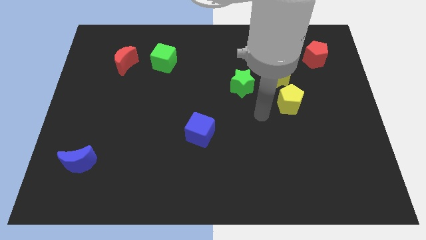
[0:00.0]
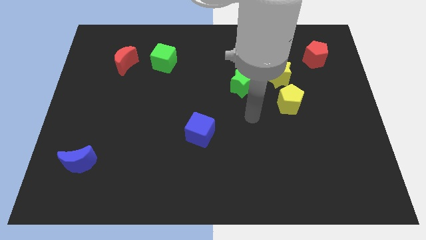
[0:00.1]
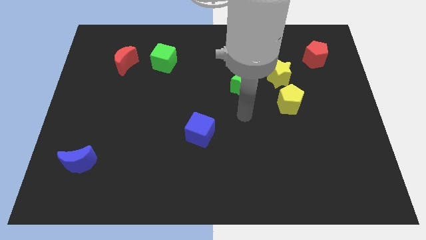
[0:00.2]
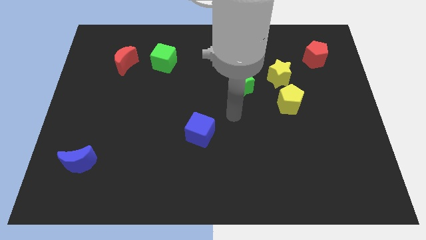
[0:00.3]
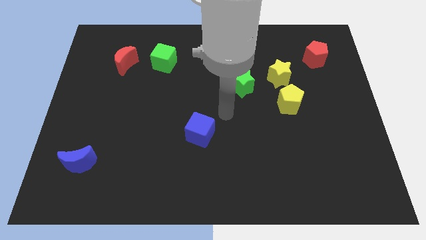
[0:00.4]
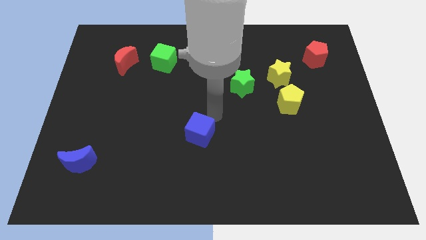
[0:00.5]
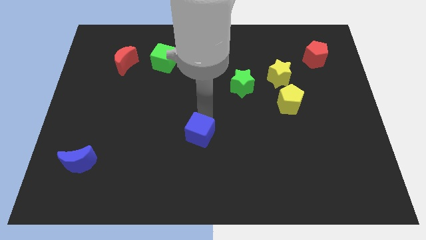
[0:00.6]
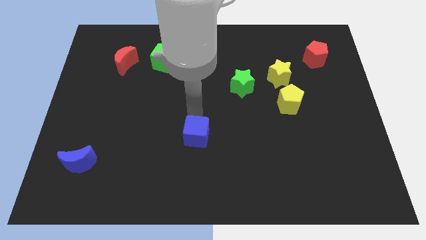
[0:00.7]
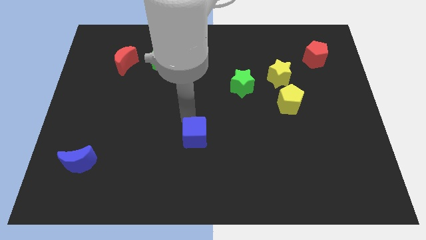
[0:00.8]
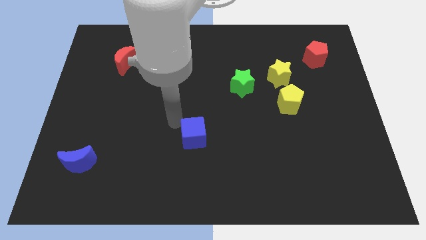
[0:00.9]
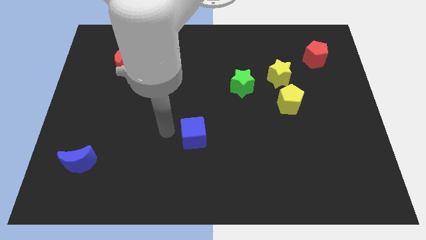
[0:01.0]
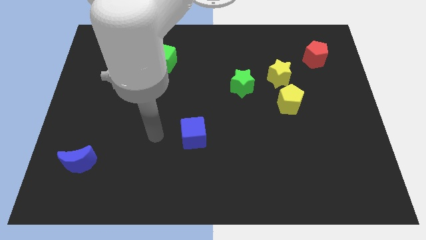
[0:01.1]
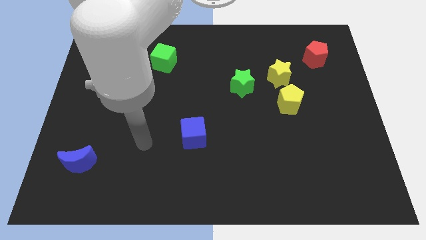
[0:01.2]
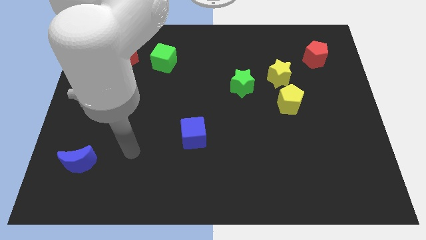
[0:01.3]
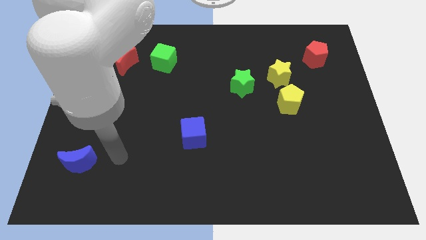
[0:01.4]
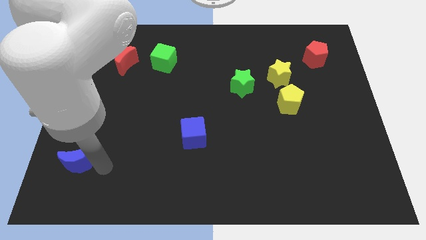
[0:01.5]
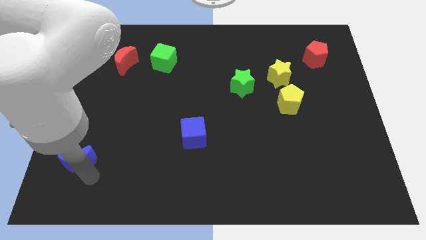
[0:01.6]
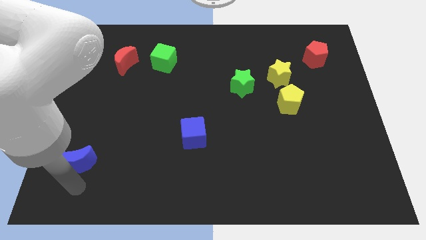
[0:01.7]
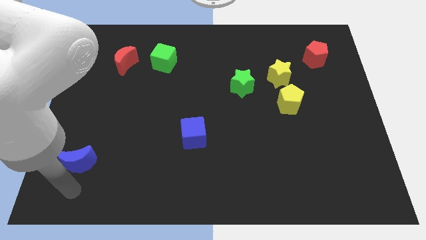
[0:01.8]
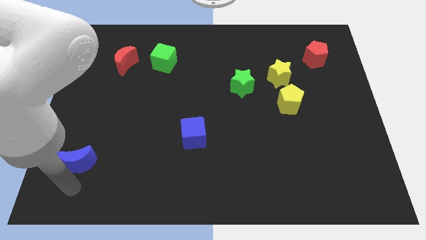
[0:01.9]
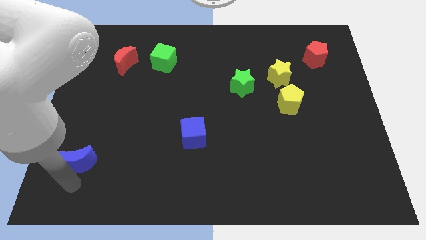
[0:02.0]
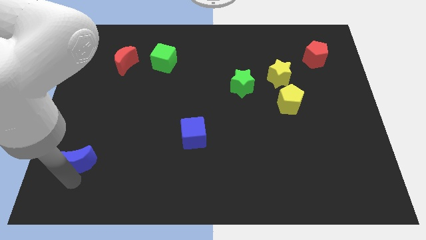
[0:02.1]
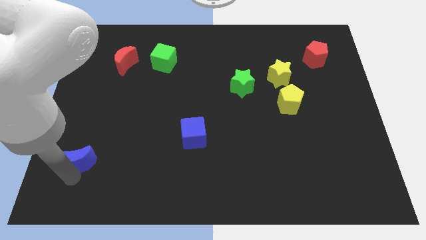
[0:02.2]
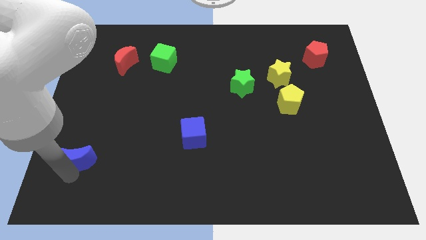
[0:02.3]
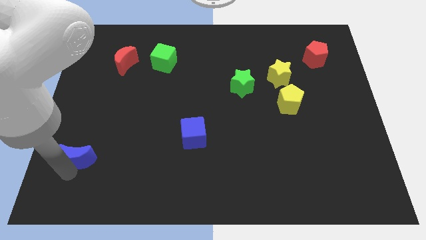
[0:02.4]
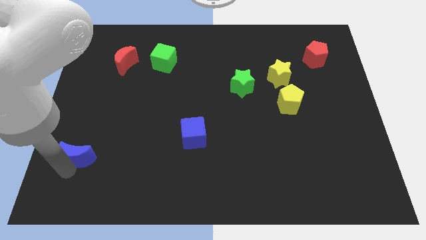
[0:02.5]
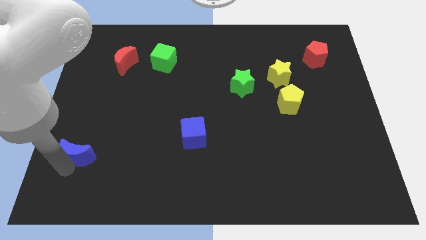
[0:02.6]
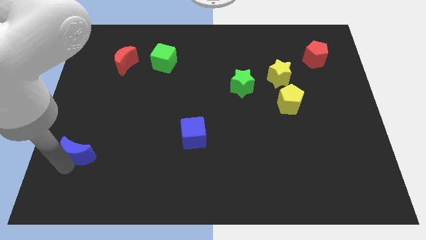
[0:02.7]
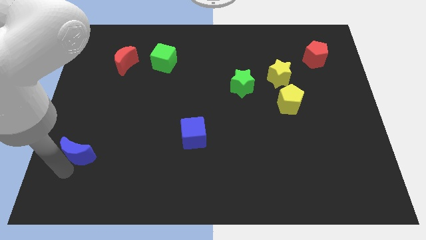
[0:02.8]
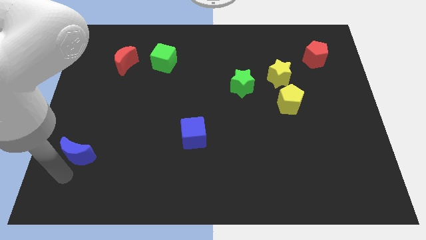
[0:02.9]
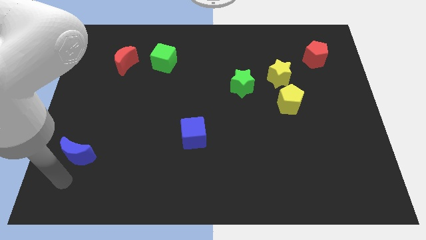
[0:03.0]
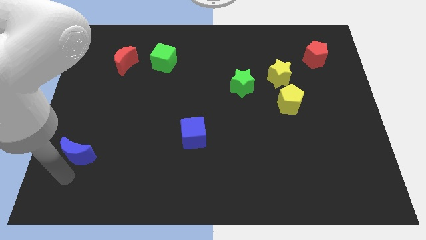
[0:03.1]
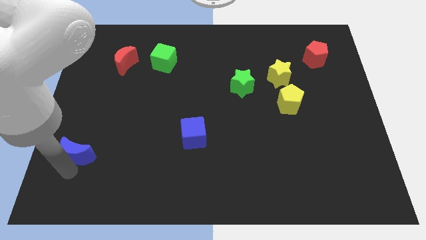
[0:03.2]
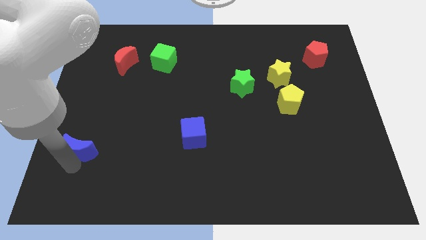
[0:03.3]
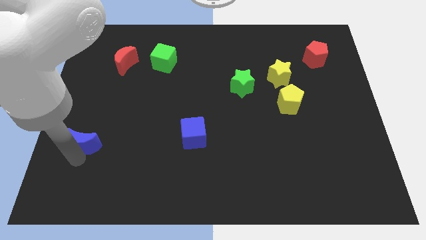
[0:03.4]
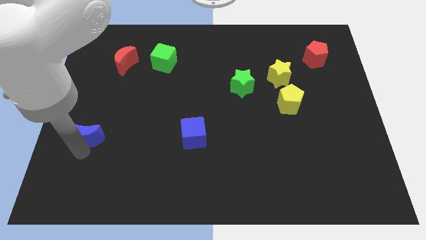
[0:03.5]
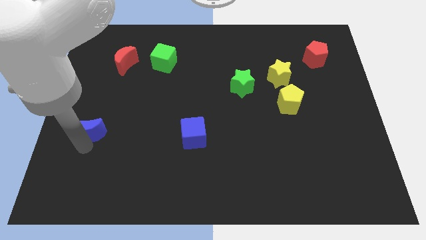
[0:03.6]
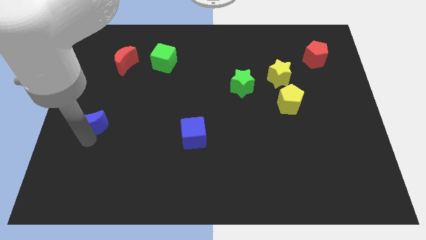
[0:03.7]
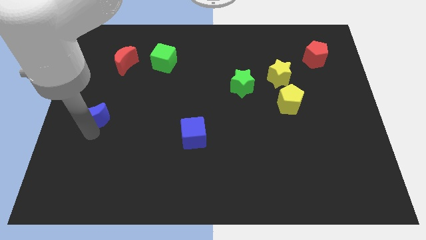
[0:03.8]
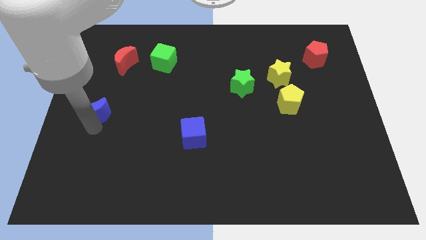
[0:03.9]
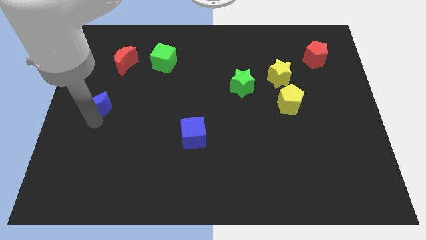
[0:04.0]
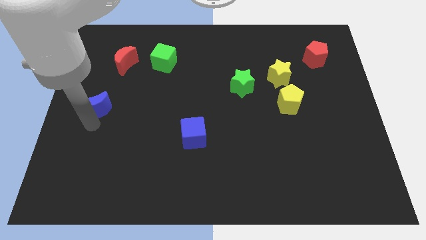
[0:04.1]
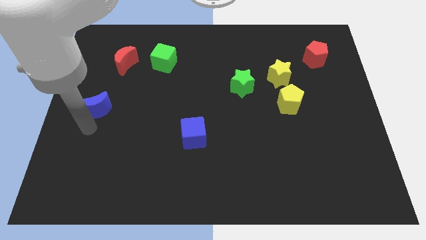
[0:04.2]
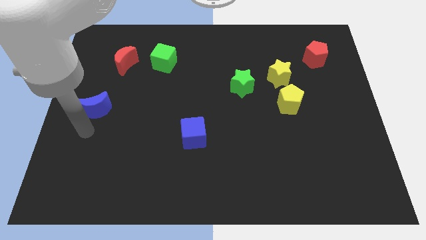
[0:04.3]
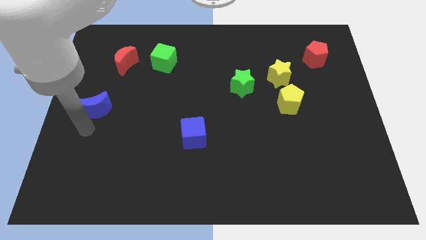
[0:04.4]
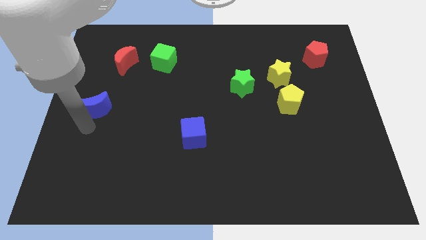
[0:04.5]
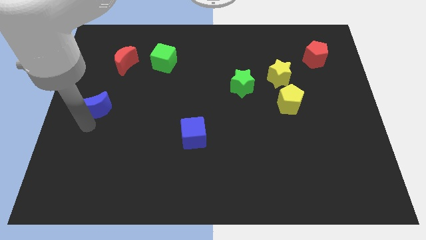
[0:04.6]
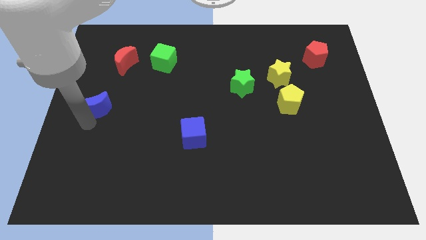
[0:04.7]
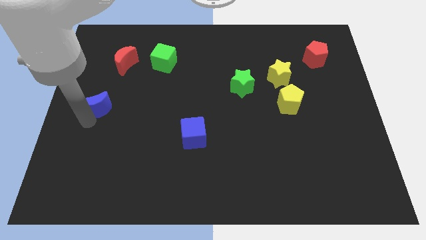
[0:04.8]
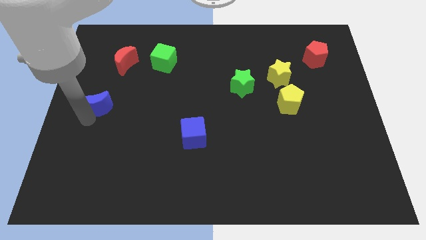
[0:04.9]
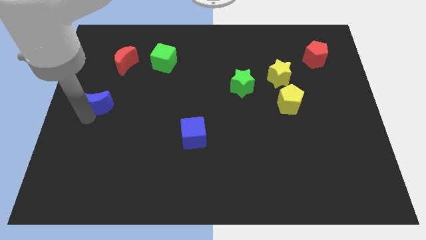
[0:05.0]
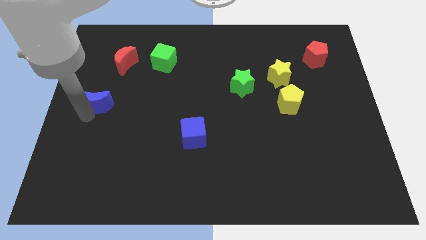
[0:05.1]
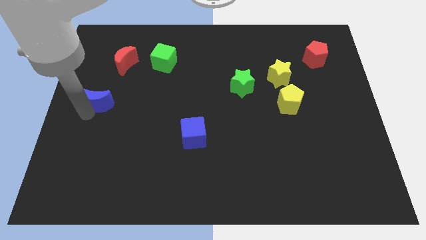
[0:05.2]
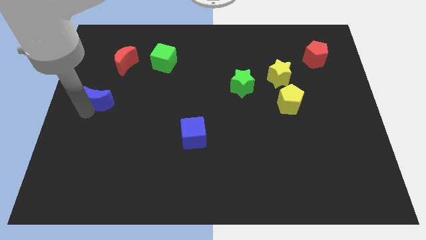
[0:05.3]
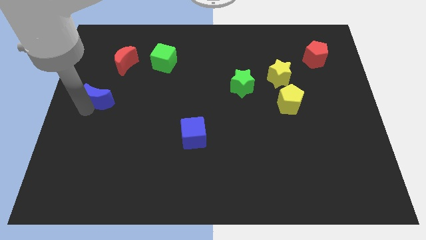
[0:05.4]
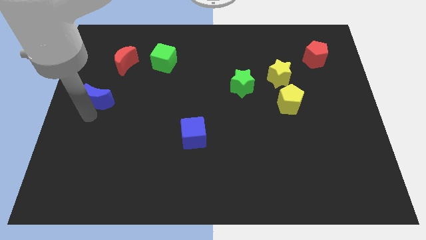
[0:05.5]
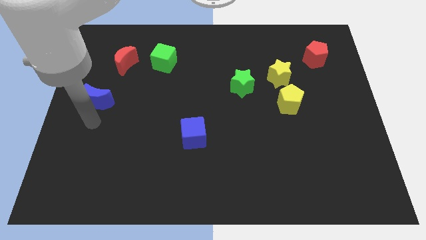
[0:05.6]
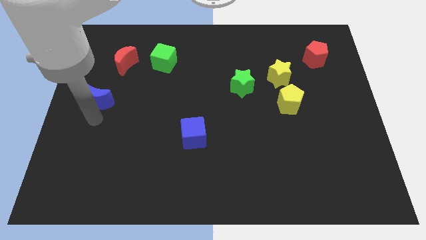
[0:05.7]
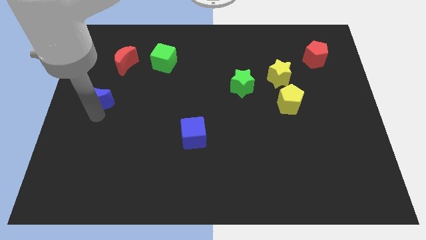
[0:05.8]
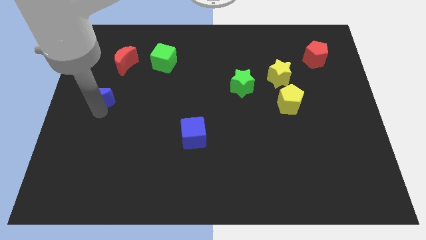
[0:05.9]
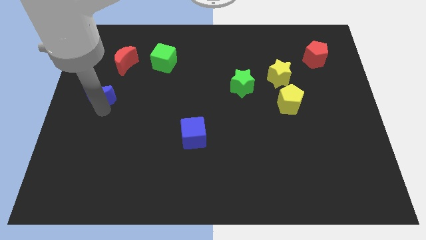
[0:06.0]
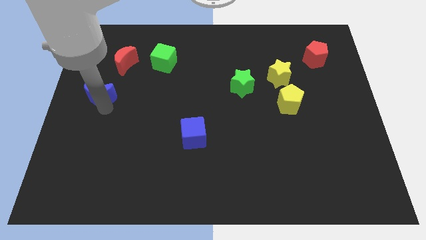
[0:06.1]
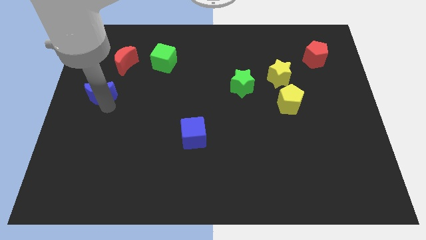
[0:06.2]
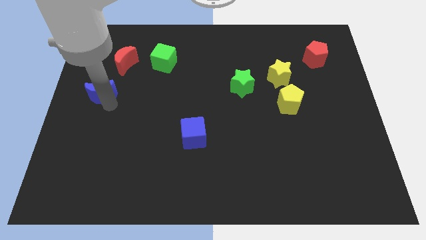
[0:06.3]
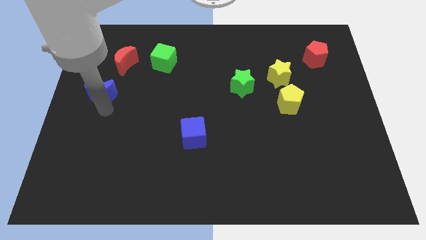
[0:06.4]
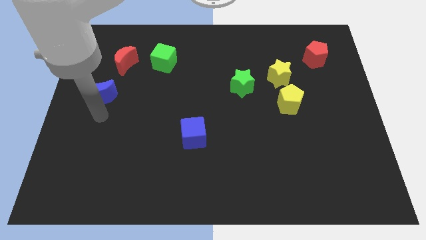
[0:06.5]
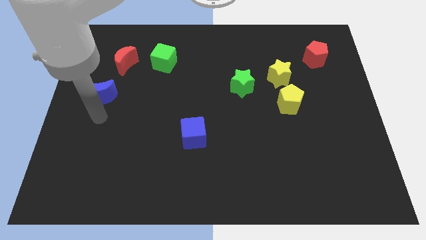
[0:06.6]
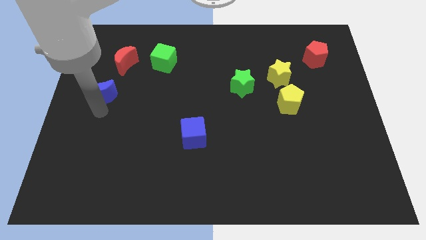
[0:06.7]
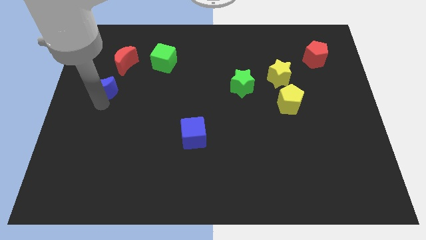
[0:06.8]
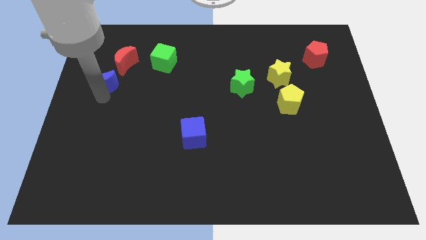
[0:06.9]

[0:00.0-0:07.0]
slide the blue moon upwards

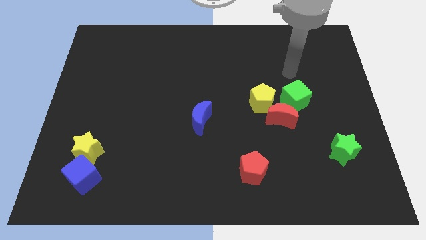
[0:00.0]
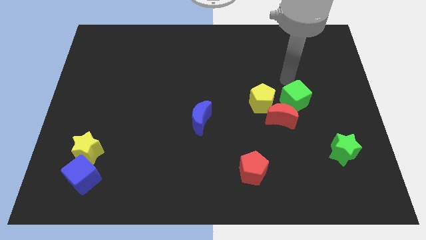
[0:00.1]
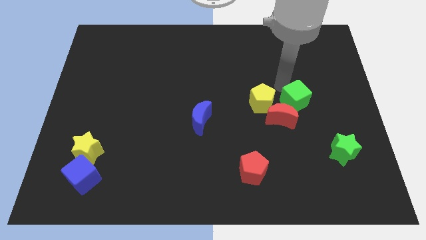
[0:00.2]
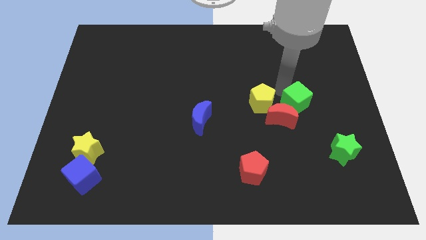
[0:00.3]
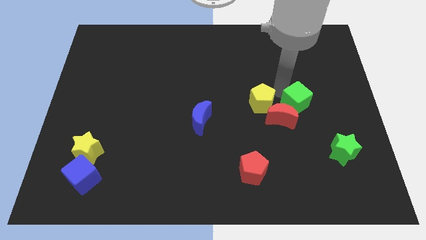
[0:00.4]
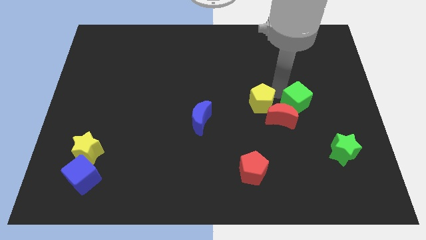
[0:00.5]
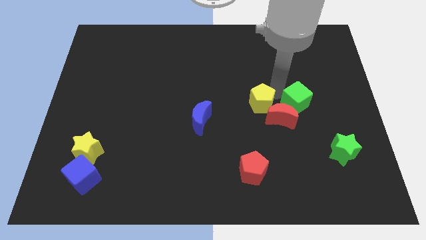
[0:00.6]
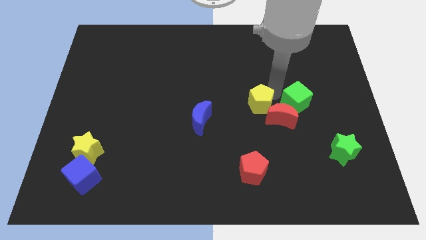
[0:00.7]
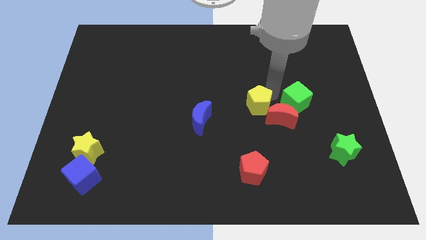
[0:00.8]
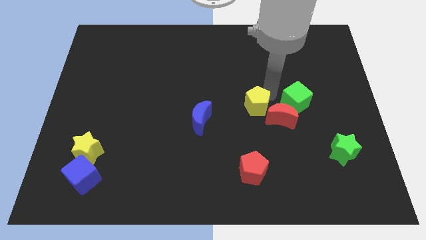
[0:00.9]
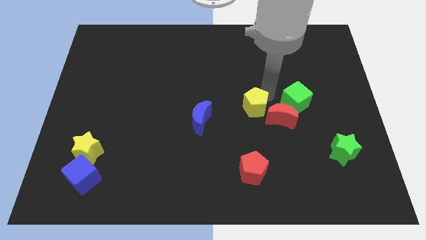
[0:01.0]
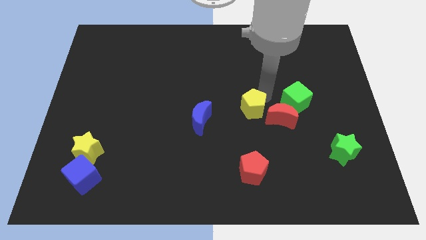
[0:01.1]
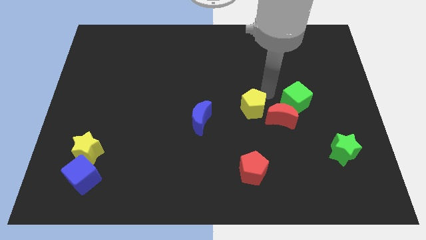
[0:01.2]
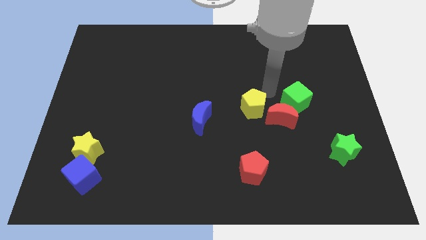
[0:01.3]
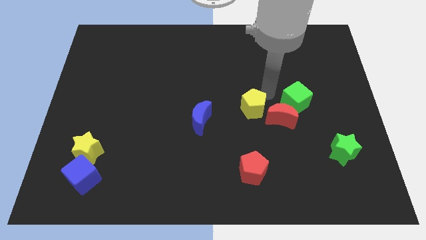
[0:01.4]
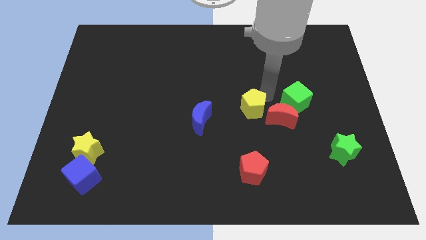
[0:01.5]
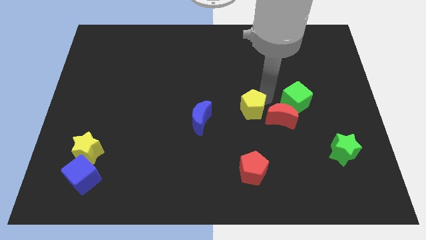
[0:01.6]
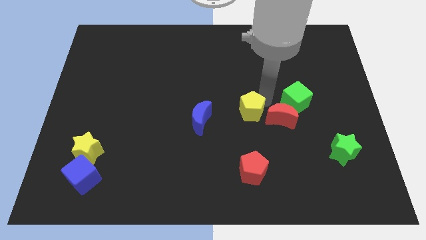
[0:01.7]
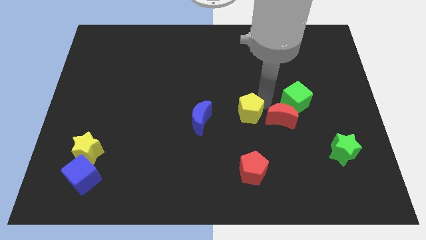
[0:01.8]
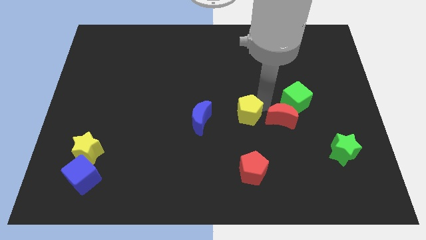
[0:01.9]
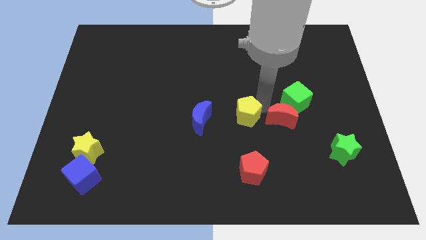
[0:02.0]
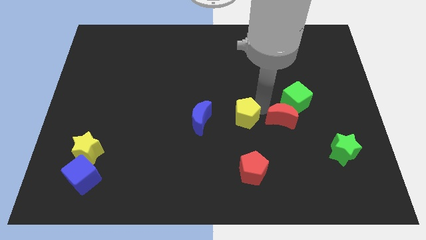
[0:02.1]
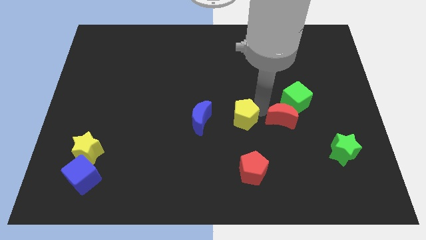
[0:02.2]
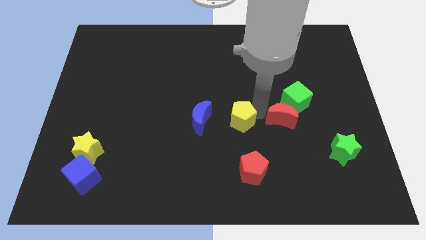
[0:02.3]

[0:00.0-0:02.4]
slightly push the yellow pentagon diagonally downwards and to the left
